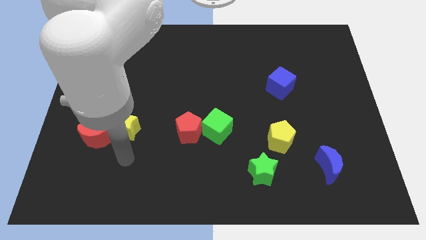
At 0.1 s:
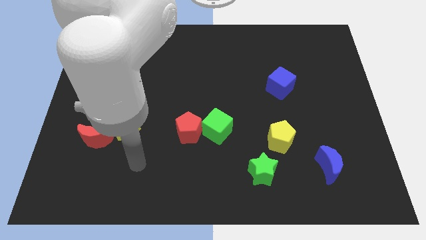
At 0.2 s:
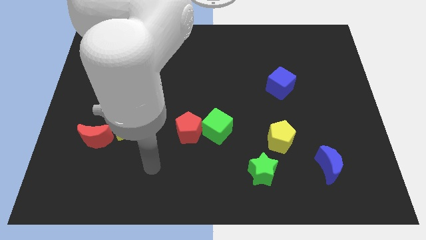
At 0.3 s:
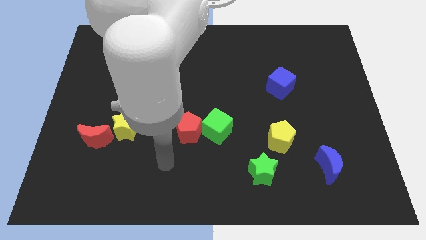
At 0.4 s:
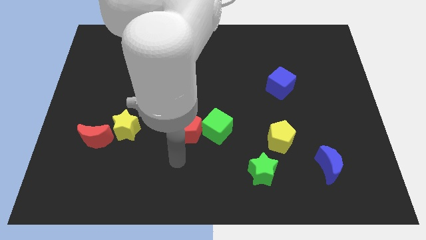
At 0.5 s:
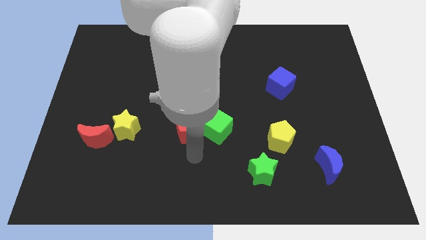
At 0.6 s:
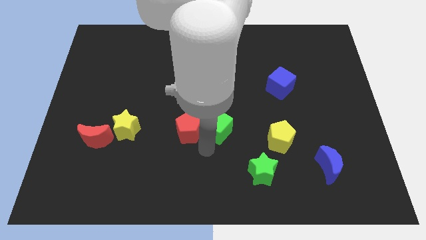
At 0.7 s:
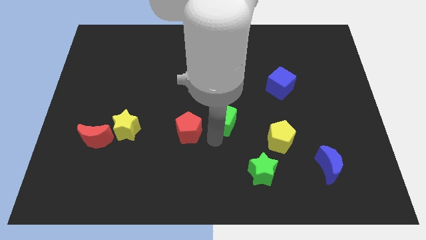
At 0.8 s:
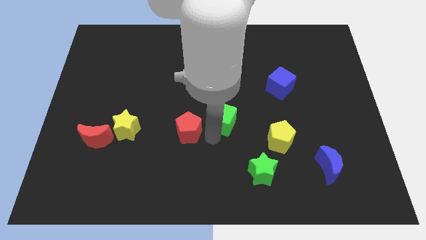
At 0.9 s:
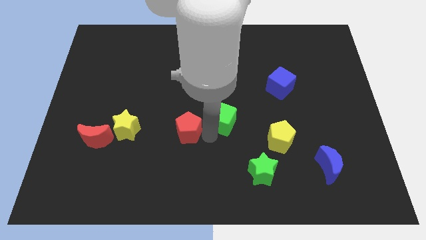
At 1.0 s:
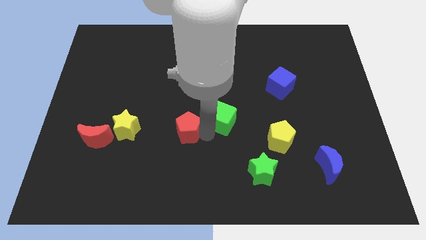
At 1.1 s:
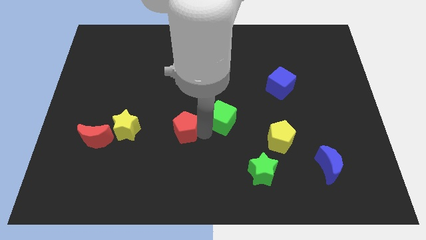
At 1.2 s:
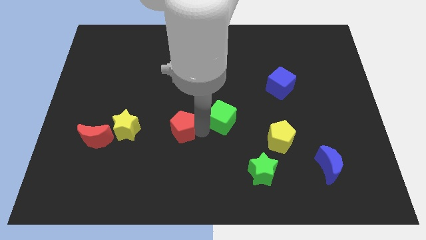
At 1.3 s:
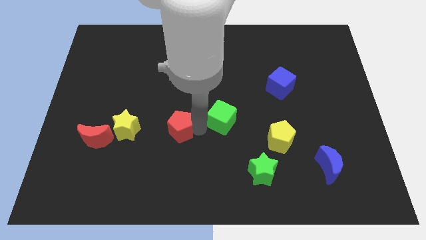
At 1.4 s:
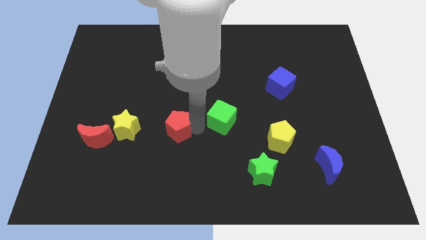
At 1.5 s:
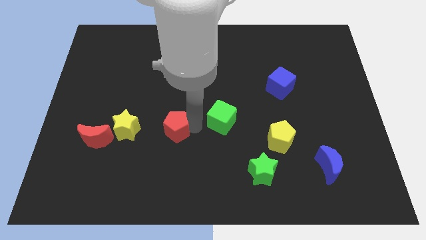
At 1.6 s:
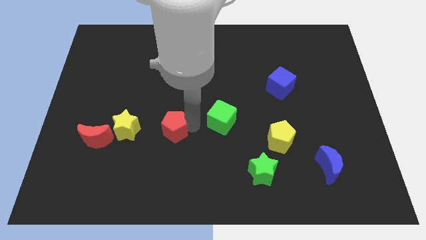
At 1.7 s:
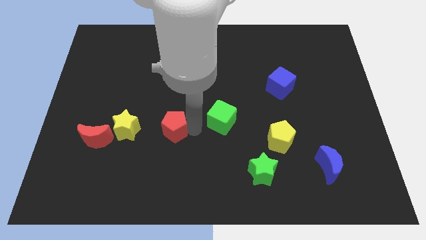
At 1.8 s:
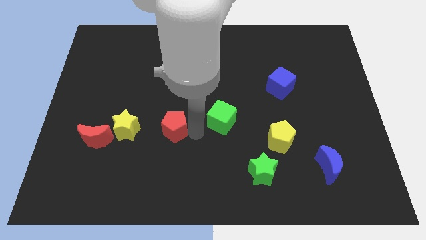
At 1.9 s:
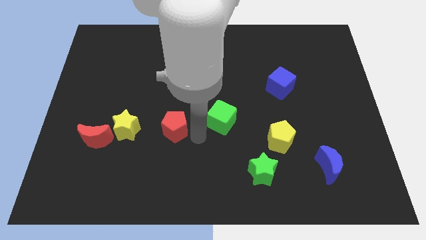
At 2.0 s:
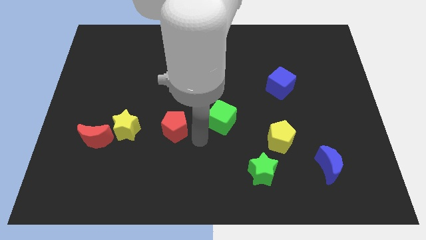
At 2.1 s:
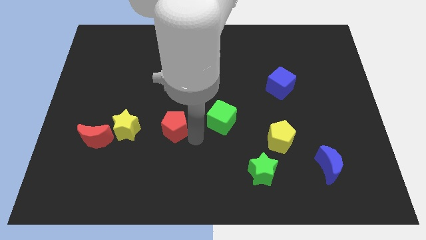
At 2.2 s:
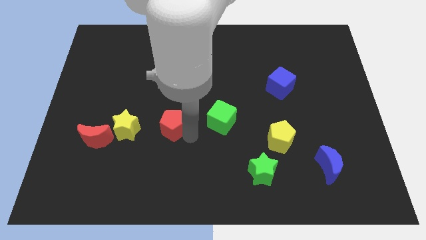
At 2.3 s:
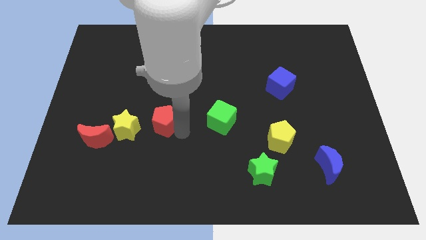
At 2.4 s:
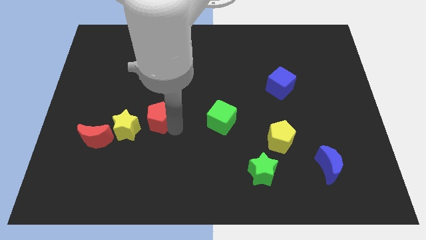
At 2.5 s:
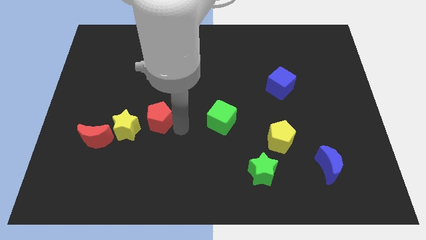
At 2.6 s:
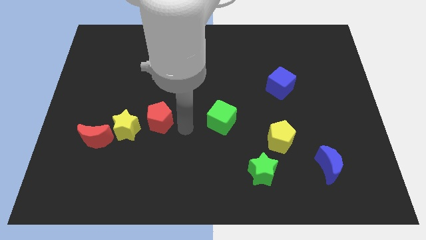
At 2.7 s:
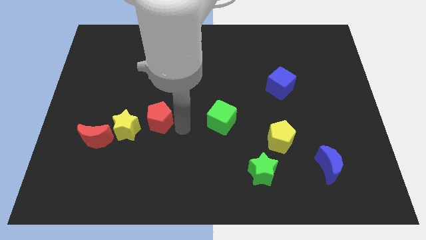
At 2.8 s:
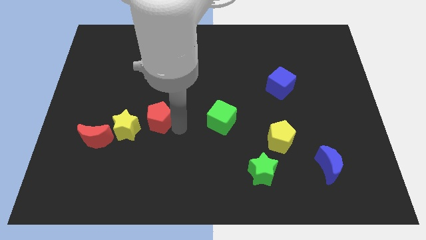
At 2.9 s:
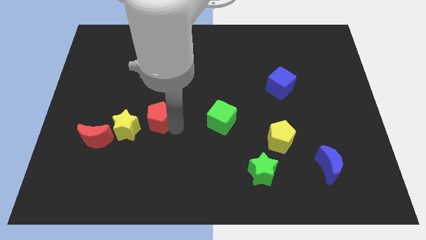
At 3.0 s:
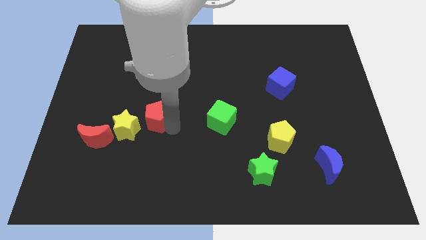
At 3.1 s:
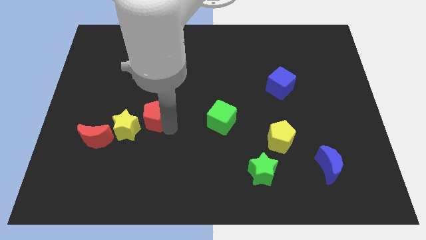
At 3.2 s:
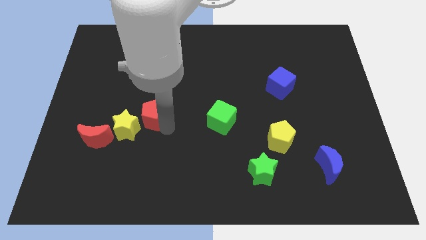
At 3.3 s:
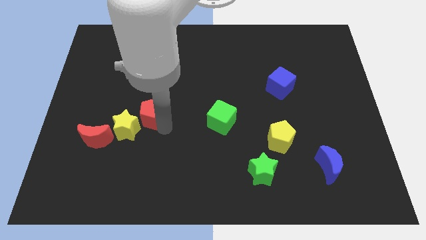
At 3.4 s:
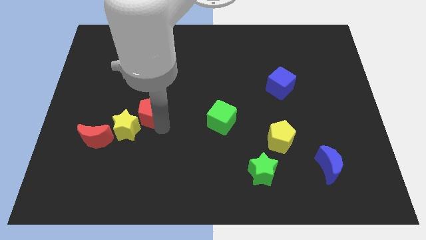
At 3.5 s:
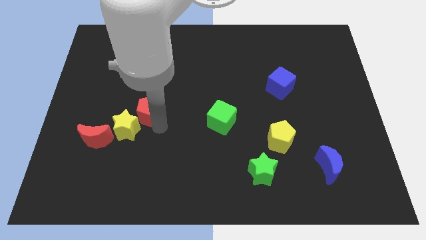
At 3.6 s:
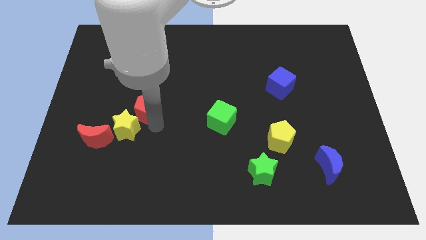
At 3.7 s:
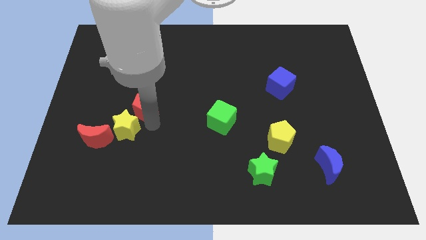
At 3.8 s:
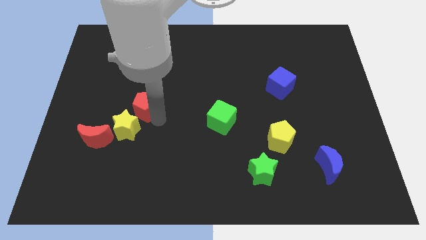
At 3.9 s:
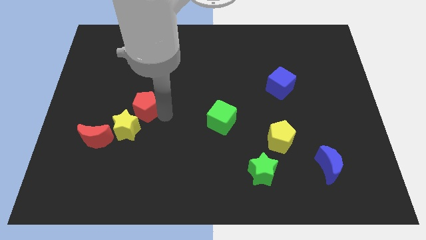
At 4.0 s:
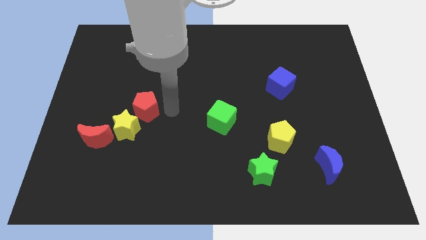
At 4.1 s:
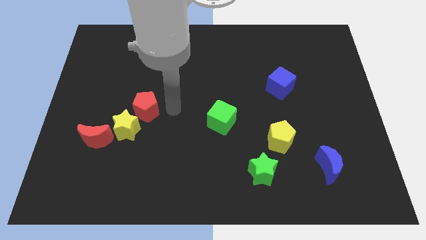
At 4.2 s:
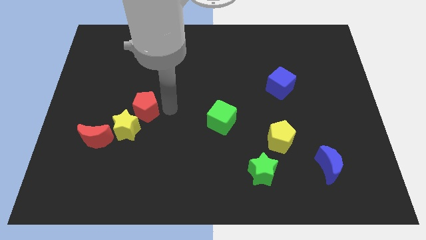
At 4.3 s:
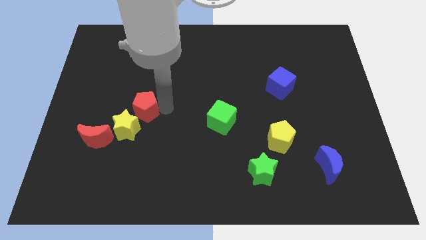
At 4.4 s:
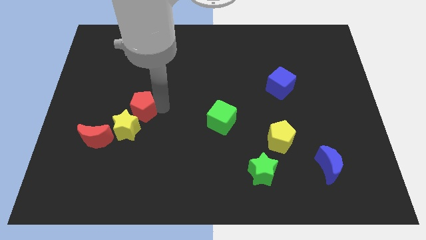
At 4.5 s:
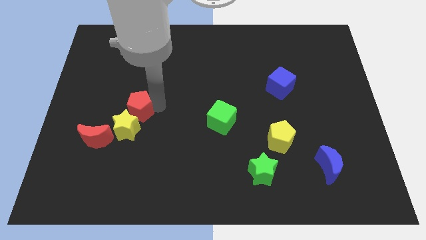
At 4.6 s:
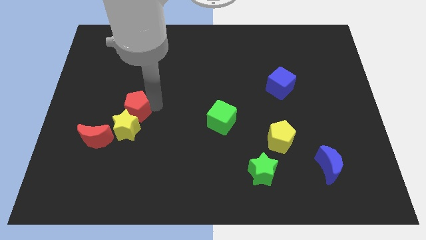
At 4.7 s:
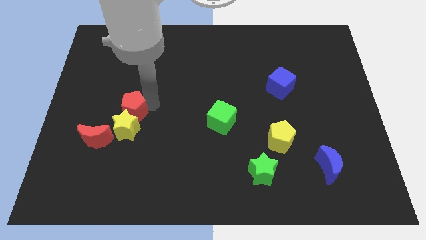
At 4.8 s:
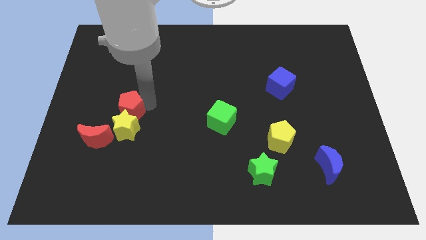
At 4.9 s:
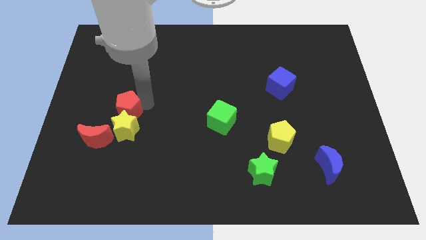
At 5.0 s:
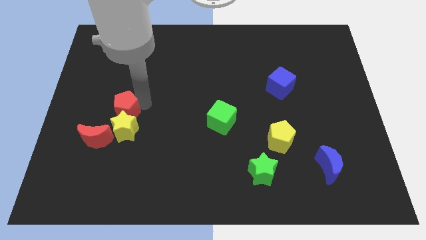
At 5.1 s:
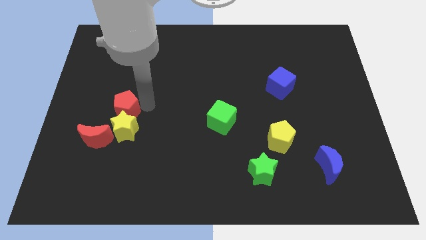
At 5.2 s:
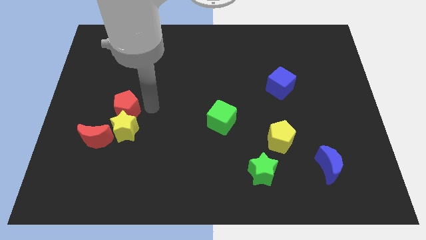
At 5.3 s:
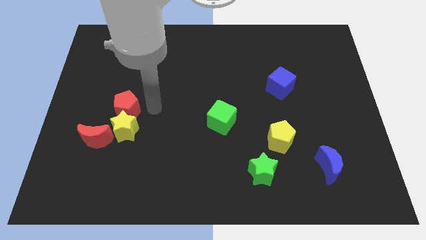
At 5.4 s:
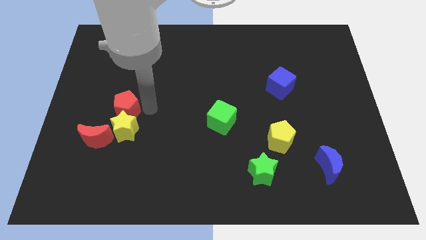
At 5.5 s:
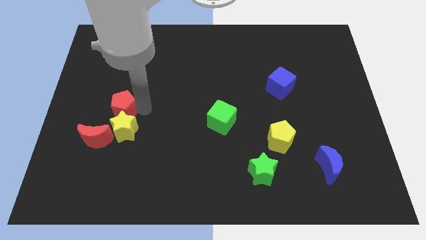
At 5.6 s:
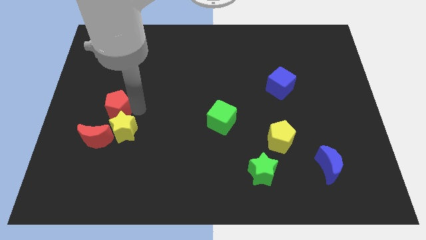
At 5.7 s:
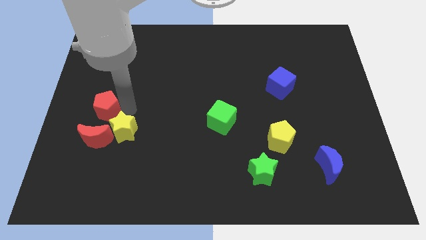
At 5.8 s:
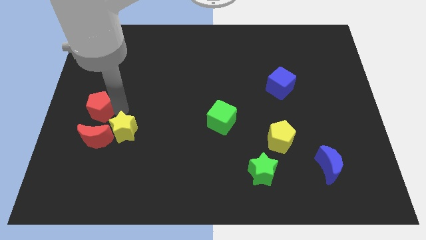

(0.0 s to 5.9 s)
push the red pentagon to the left side
